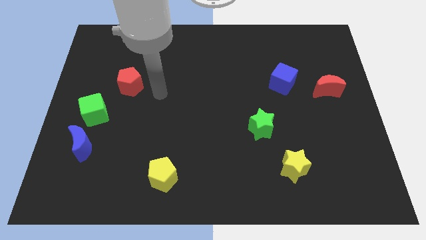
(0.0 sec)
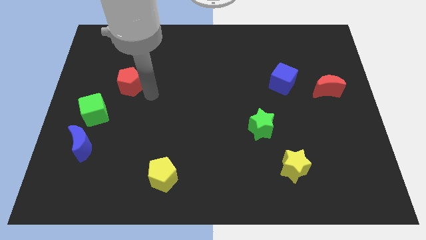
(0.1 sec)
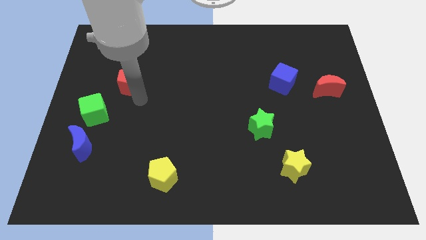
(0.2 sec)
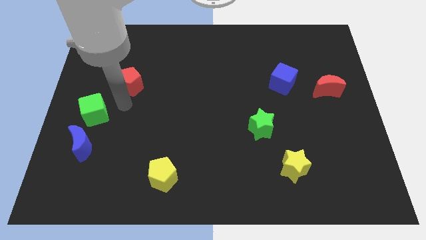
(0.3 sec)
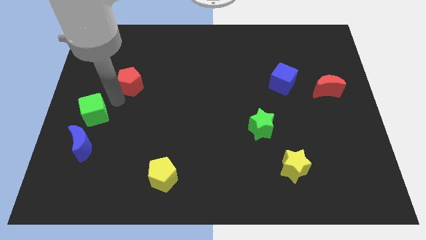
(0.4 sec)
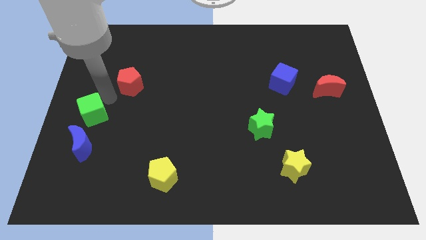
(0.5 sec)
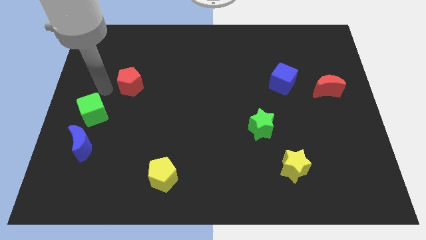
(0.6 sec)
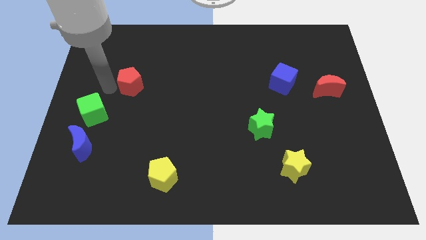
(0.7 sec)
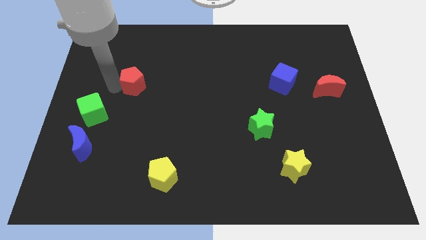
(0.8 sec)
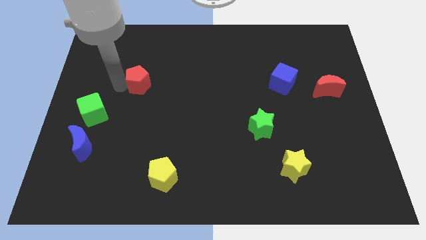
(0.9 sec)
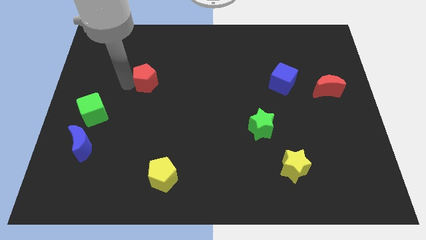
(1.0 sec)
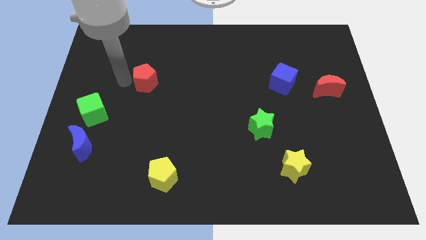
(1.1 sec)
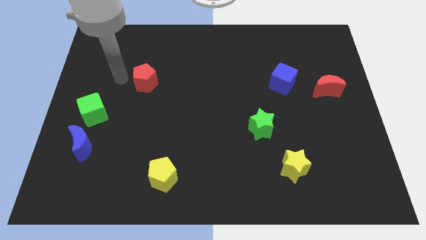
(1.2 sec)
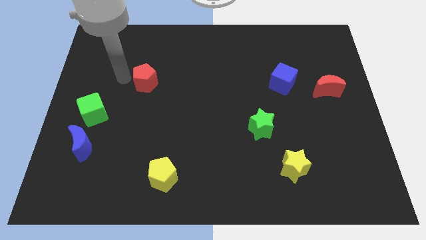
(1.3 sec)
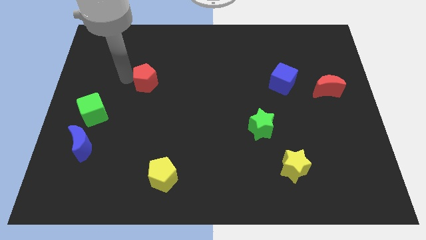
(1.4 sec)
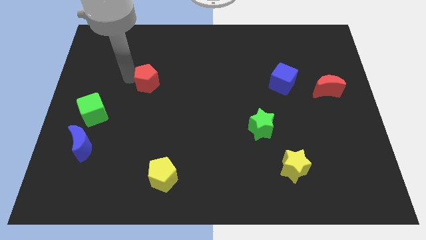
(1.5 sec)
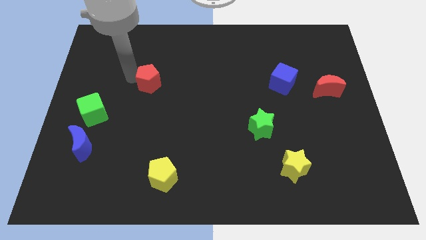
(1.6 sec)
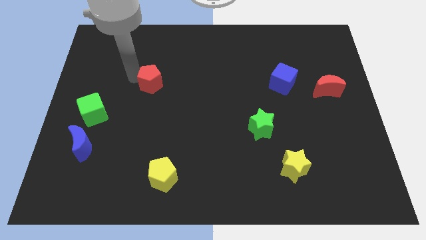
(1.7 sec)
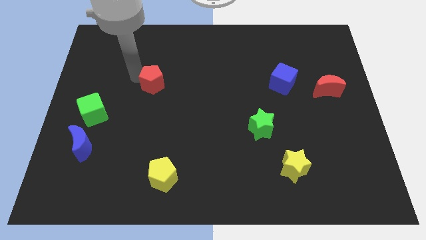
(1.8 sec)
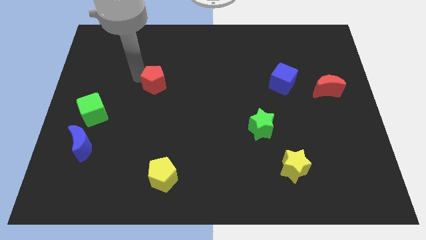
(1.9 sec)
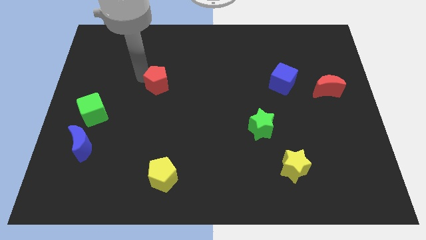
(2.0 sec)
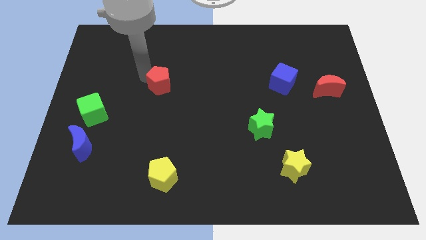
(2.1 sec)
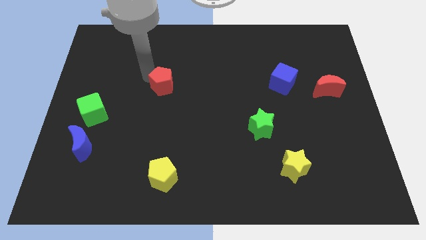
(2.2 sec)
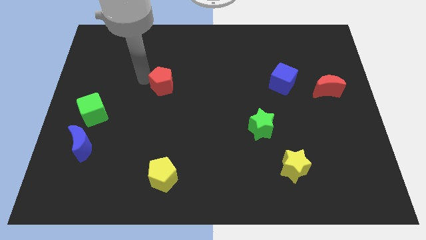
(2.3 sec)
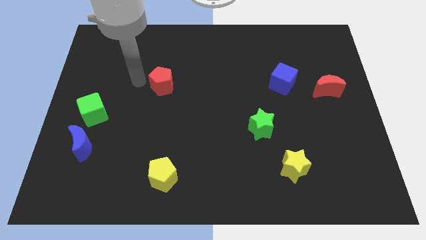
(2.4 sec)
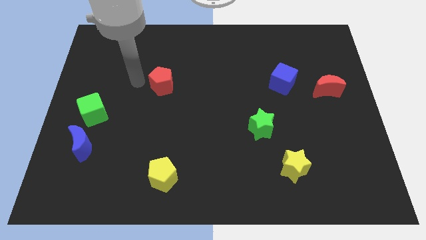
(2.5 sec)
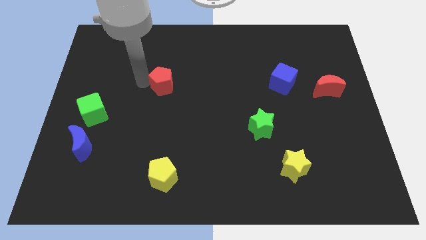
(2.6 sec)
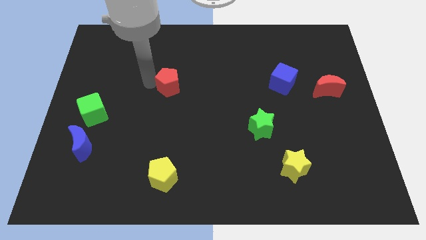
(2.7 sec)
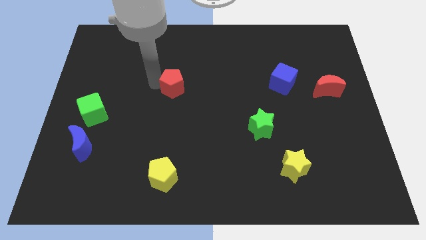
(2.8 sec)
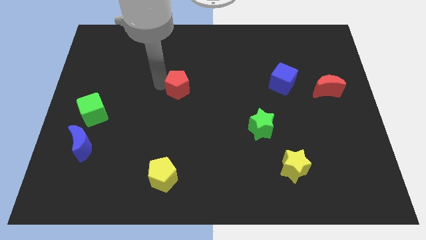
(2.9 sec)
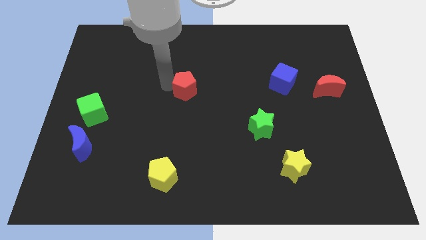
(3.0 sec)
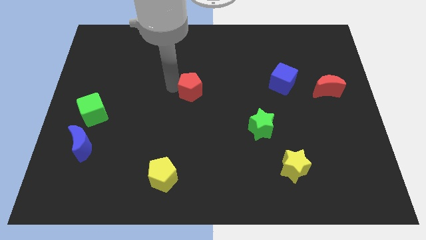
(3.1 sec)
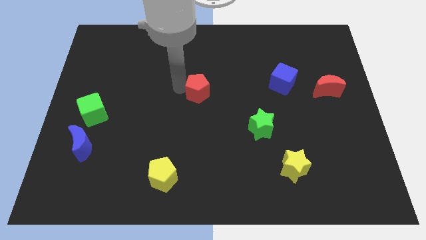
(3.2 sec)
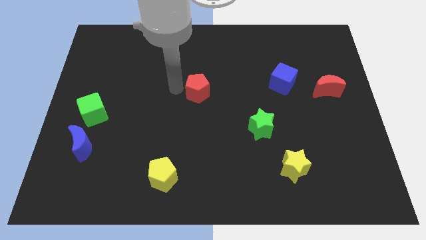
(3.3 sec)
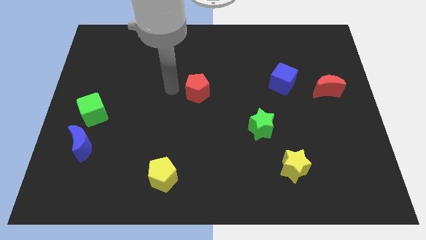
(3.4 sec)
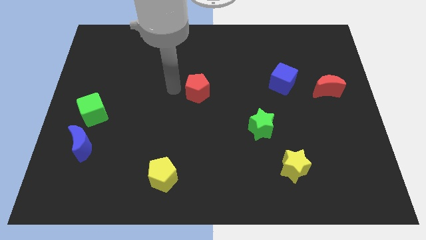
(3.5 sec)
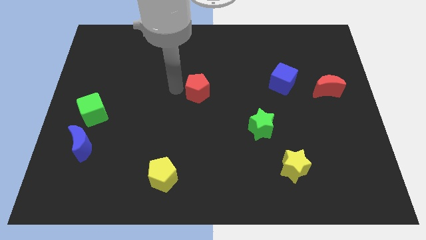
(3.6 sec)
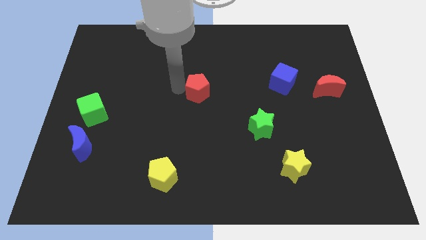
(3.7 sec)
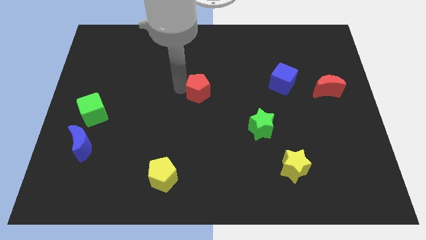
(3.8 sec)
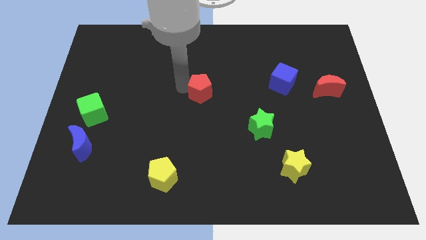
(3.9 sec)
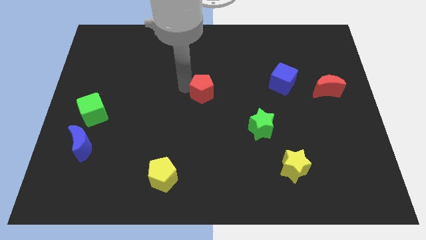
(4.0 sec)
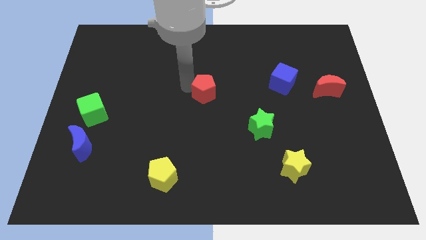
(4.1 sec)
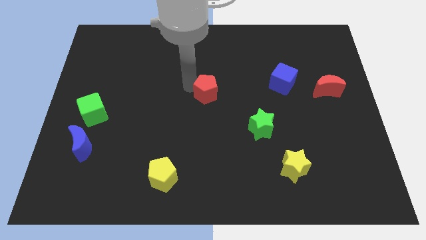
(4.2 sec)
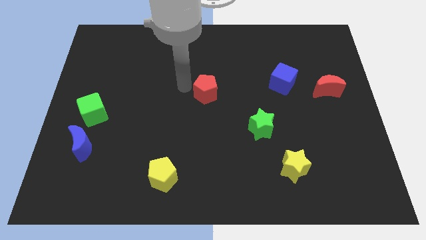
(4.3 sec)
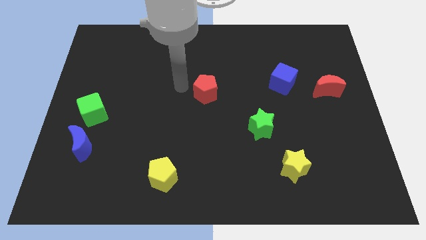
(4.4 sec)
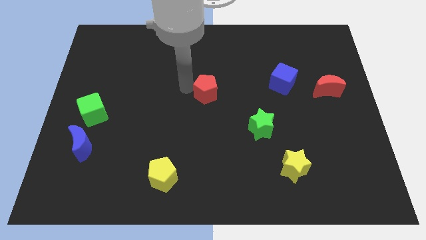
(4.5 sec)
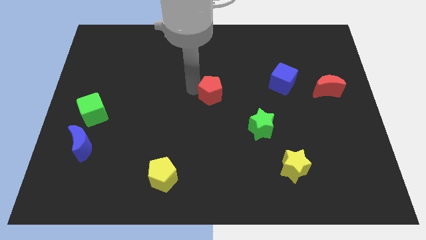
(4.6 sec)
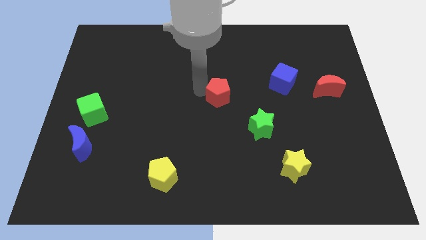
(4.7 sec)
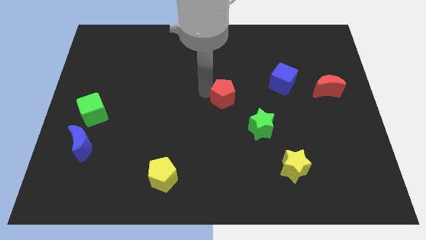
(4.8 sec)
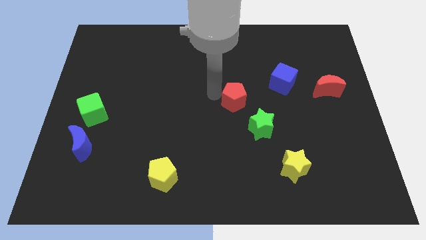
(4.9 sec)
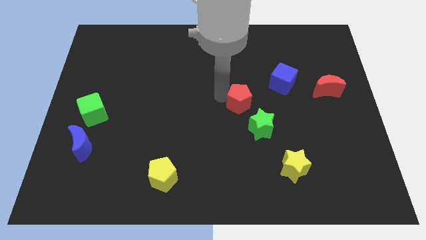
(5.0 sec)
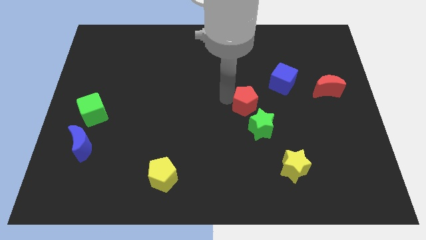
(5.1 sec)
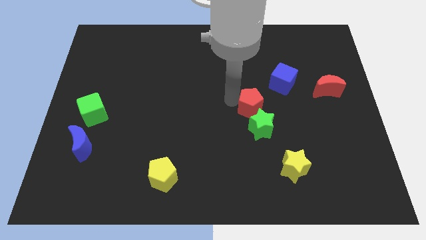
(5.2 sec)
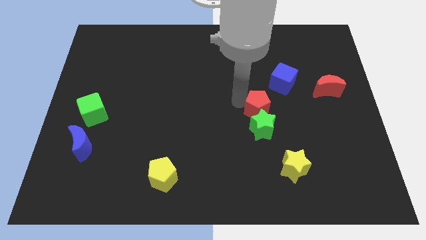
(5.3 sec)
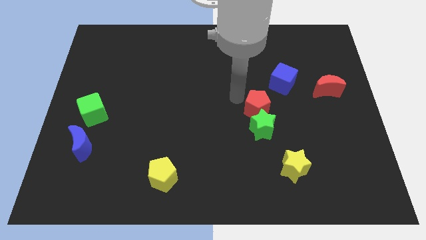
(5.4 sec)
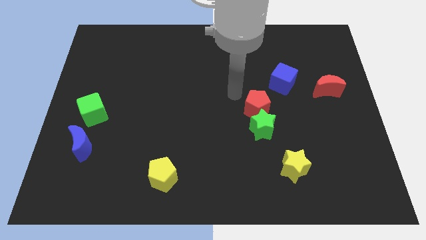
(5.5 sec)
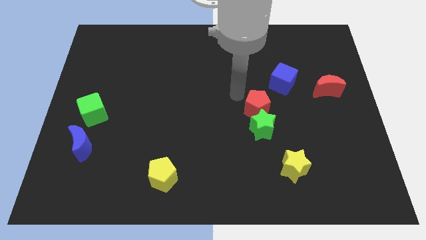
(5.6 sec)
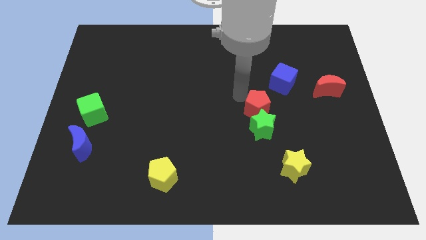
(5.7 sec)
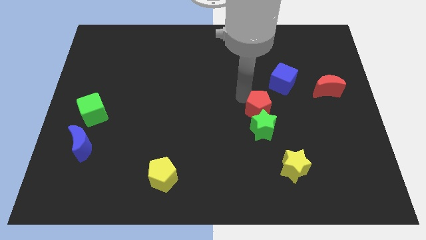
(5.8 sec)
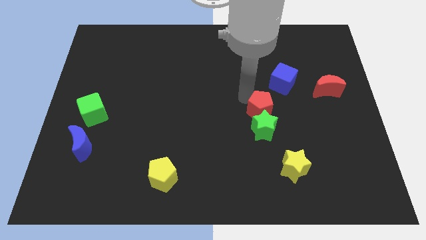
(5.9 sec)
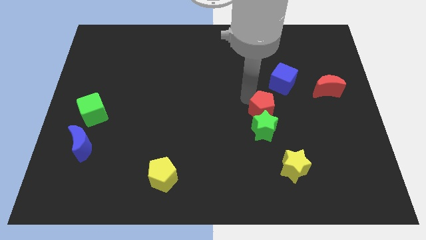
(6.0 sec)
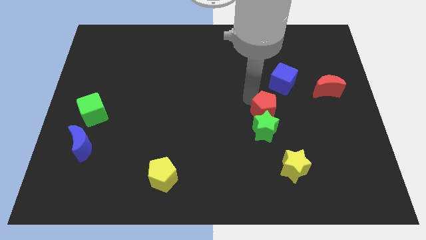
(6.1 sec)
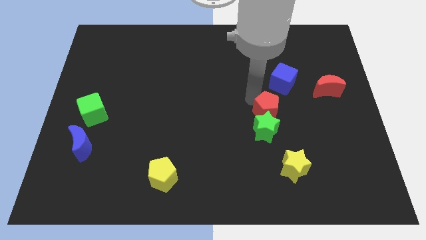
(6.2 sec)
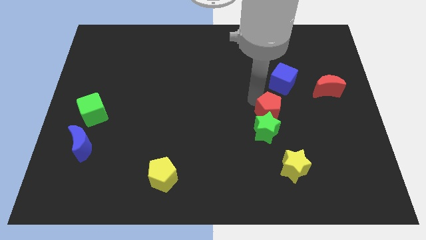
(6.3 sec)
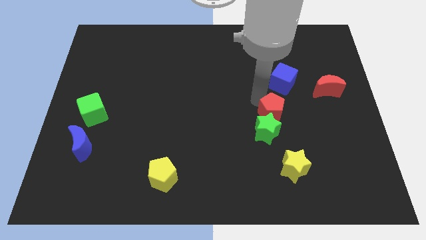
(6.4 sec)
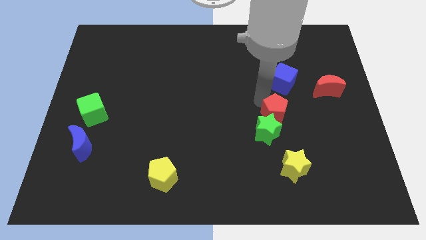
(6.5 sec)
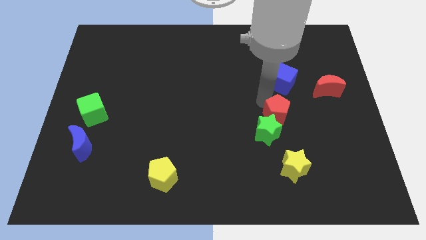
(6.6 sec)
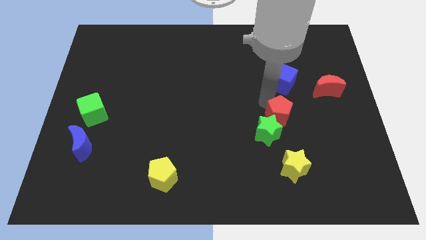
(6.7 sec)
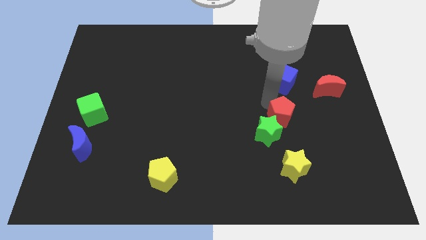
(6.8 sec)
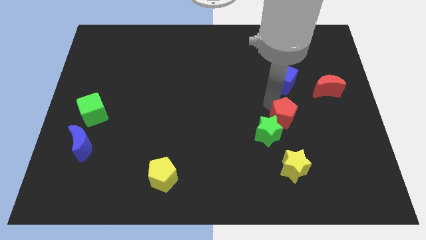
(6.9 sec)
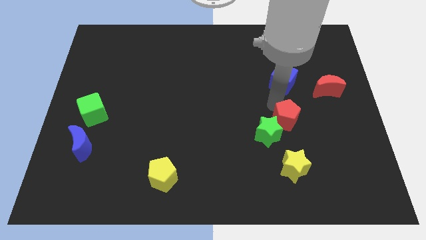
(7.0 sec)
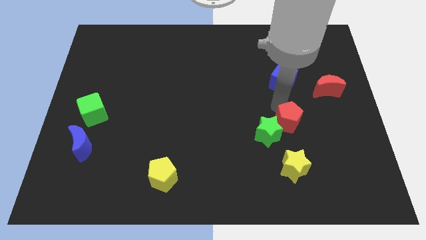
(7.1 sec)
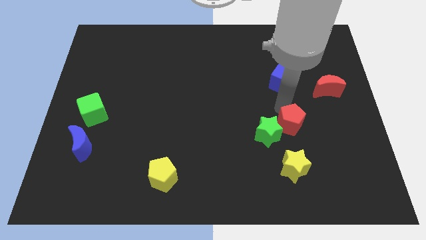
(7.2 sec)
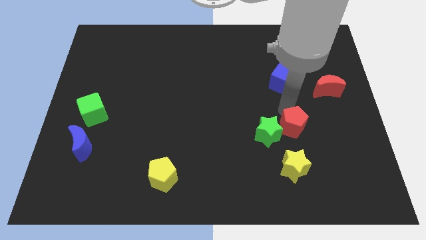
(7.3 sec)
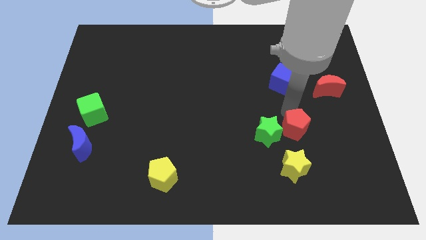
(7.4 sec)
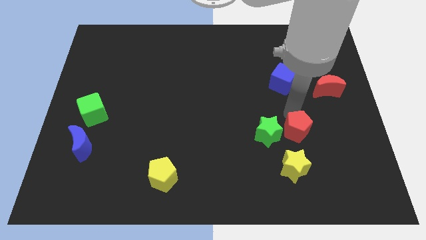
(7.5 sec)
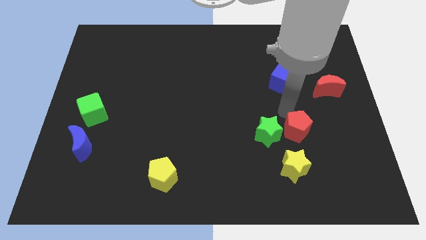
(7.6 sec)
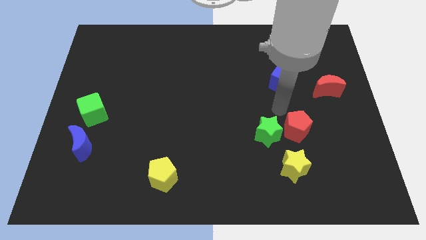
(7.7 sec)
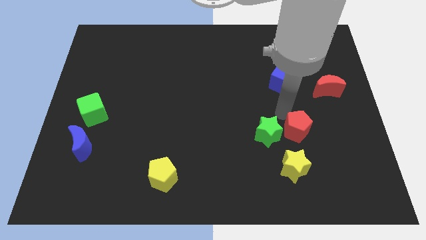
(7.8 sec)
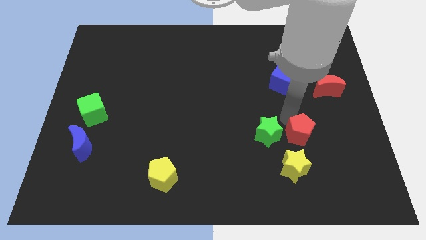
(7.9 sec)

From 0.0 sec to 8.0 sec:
move the red pentagon to the top right side of the yellow star
